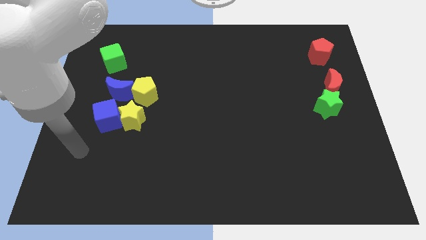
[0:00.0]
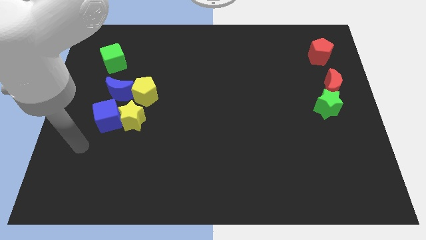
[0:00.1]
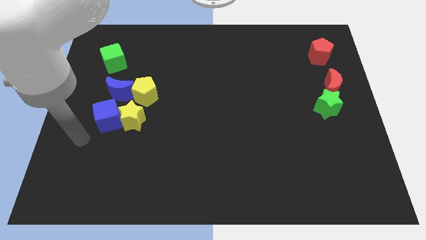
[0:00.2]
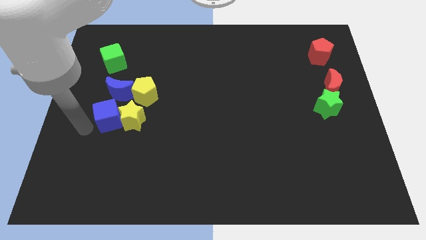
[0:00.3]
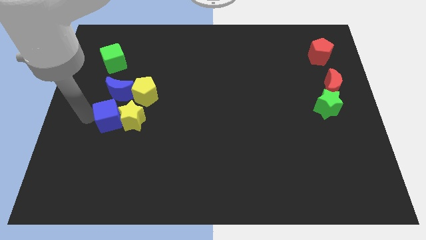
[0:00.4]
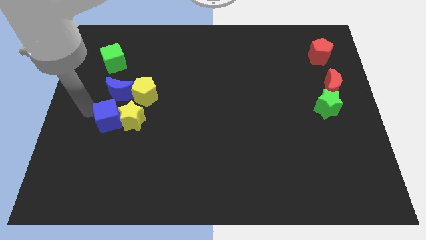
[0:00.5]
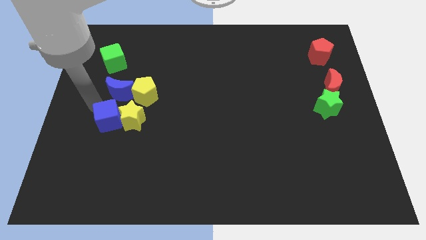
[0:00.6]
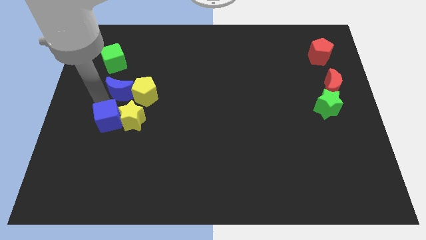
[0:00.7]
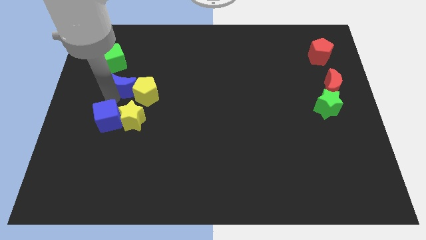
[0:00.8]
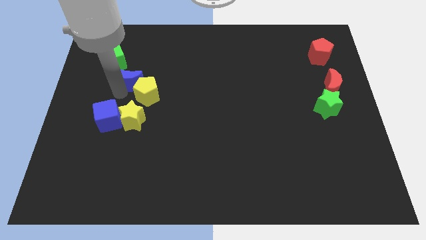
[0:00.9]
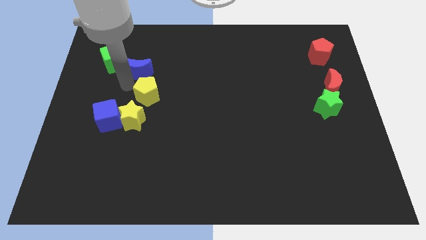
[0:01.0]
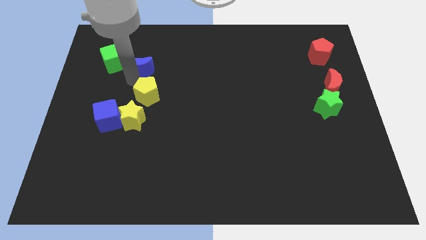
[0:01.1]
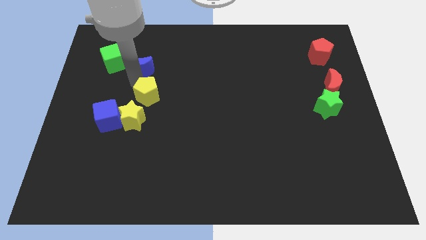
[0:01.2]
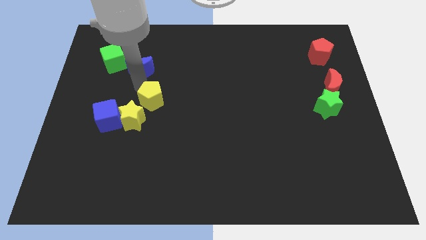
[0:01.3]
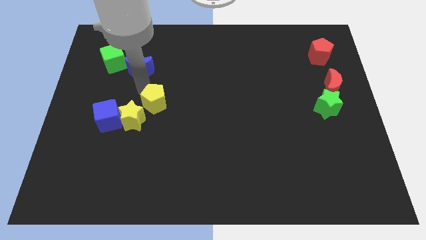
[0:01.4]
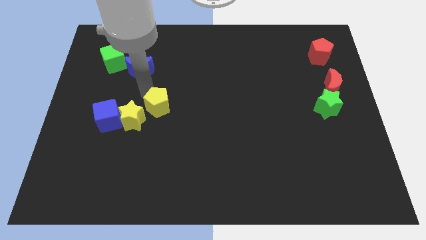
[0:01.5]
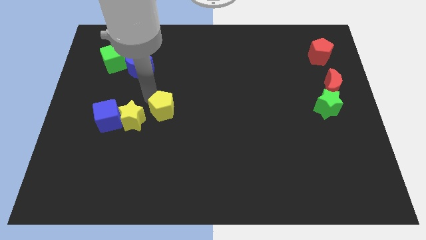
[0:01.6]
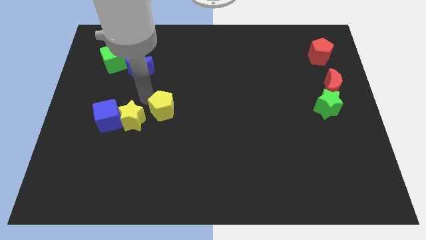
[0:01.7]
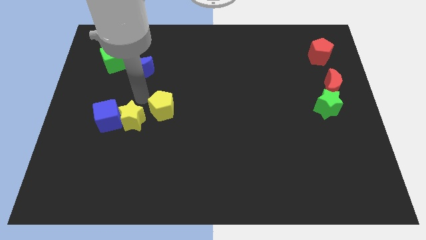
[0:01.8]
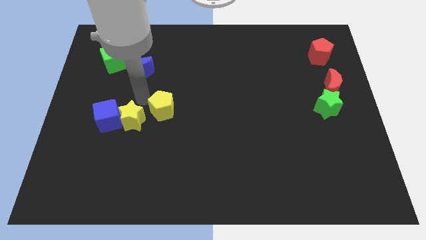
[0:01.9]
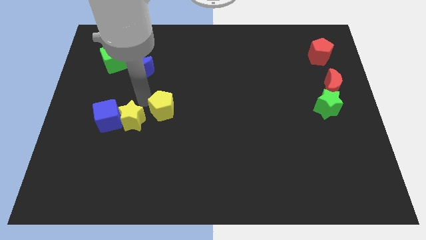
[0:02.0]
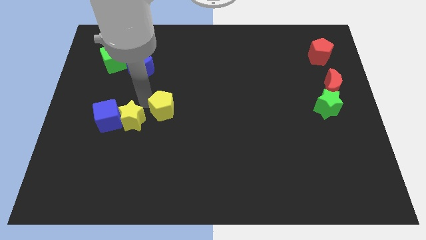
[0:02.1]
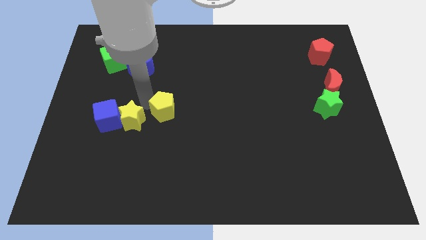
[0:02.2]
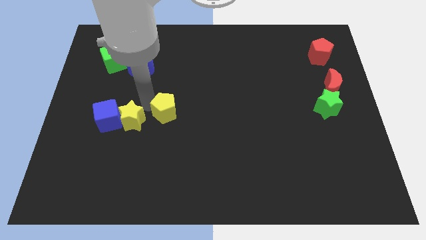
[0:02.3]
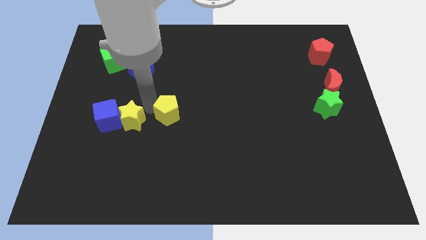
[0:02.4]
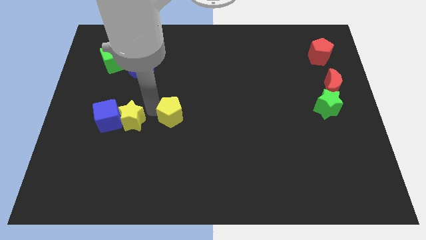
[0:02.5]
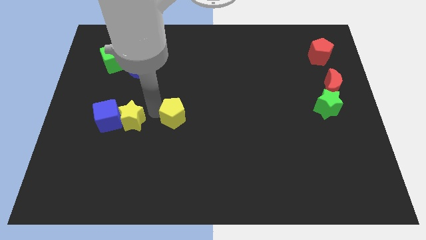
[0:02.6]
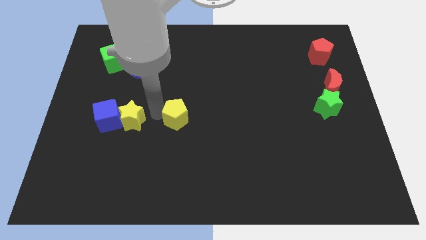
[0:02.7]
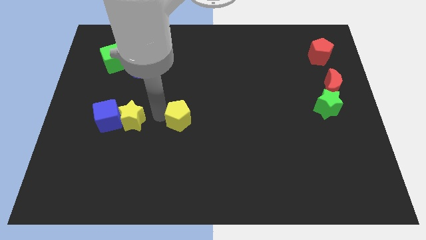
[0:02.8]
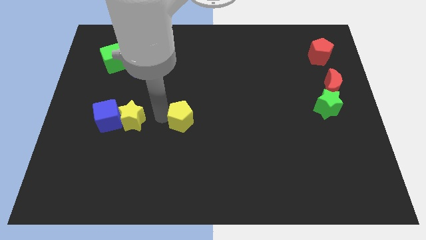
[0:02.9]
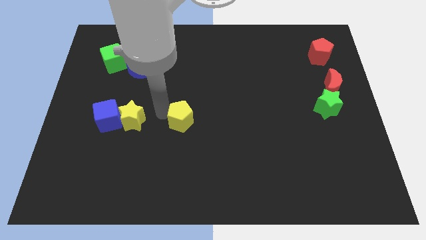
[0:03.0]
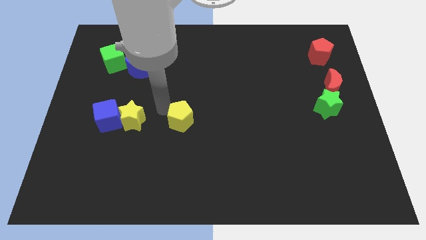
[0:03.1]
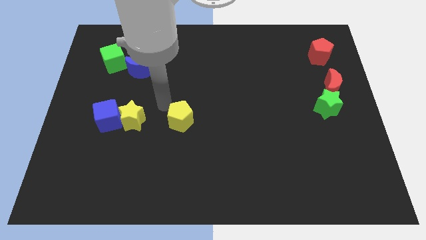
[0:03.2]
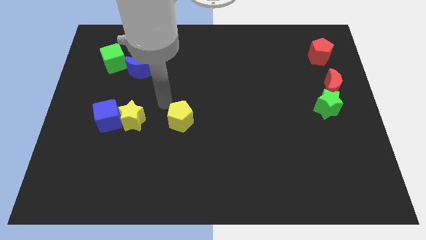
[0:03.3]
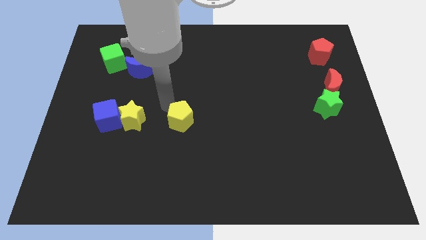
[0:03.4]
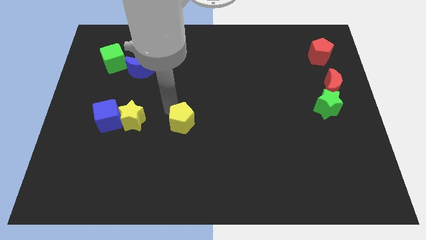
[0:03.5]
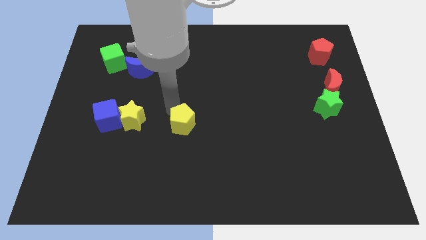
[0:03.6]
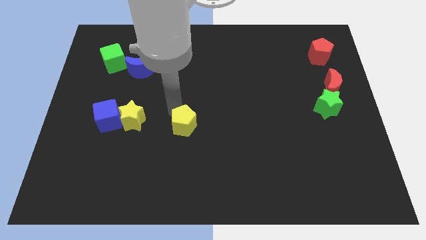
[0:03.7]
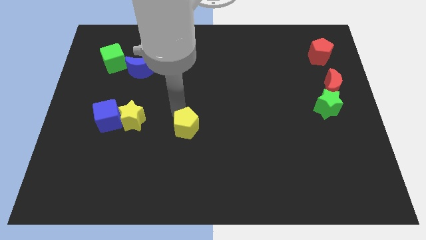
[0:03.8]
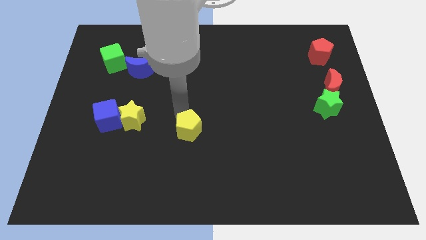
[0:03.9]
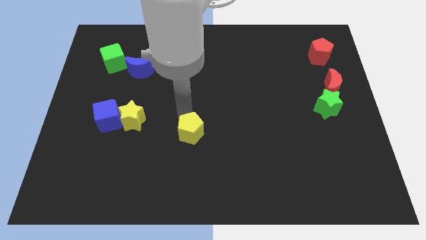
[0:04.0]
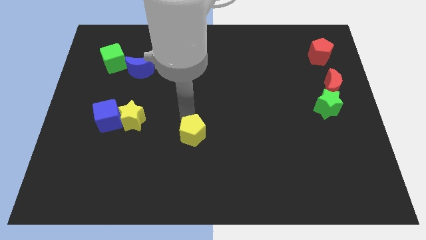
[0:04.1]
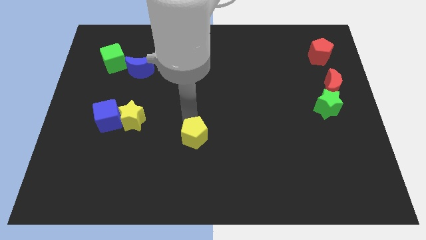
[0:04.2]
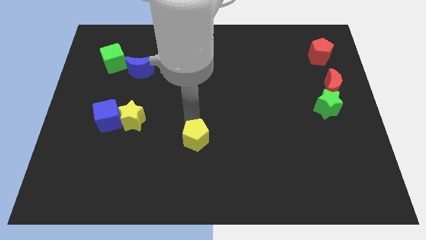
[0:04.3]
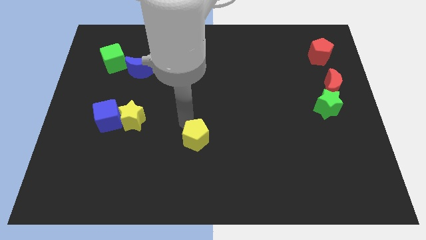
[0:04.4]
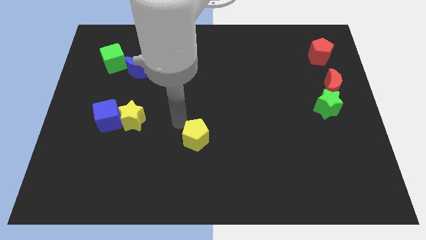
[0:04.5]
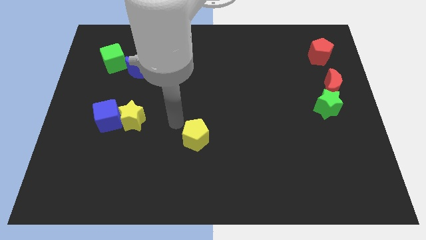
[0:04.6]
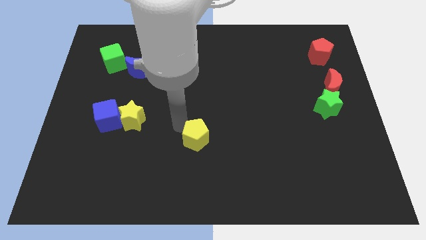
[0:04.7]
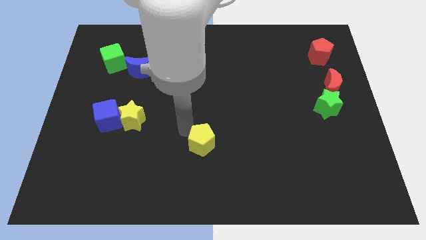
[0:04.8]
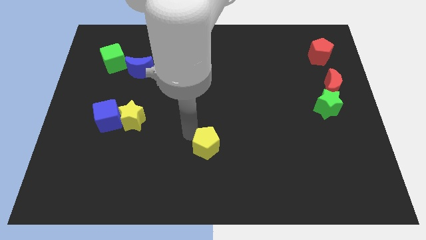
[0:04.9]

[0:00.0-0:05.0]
push the yellow pentagon diagonally downwards and to the right

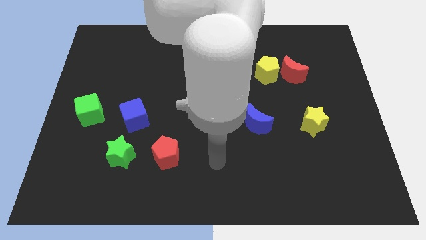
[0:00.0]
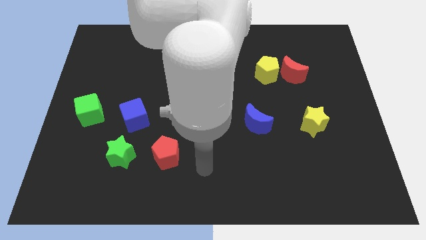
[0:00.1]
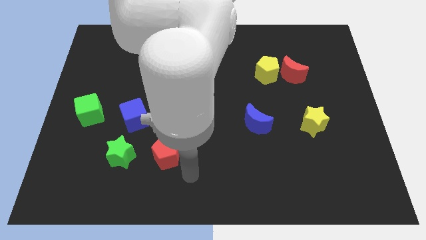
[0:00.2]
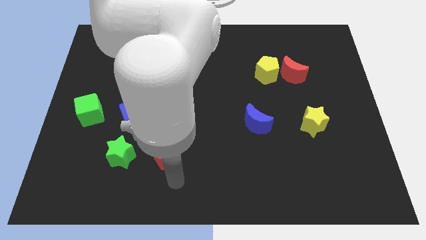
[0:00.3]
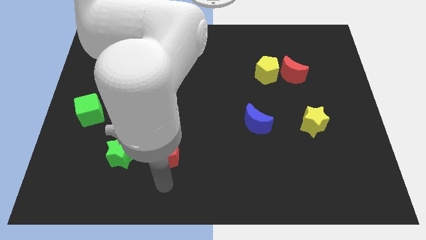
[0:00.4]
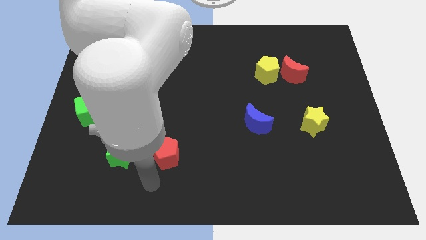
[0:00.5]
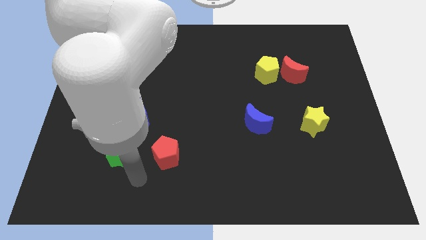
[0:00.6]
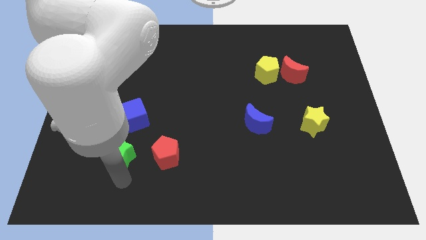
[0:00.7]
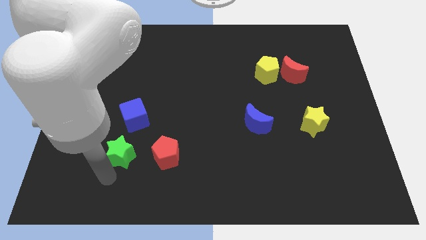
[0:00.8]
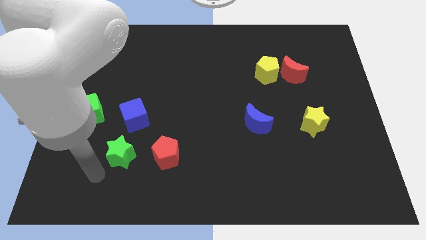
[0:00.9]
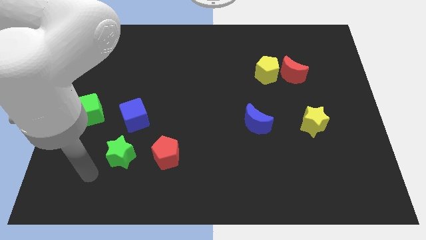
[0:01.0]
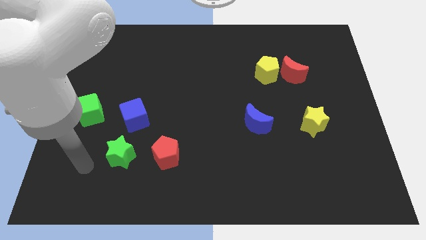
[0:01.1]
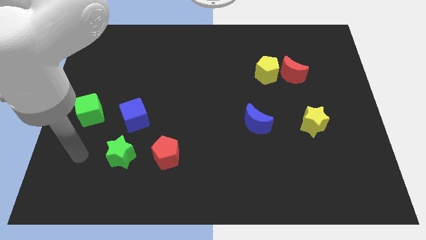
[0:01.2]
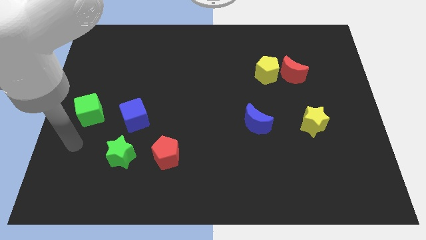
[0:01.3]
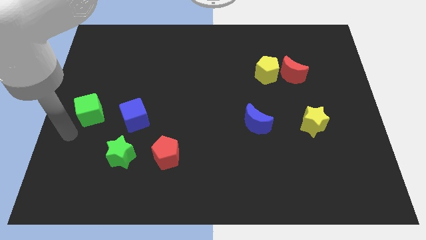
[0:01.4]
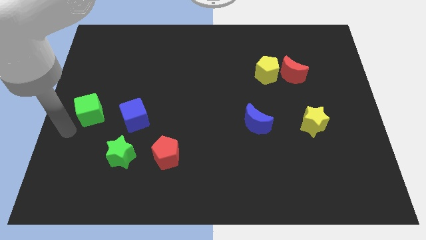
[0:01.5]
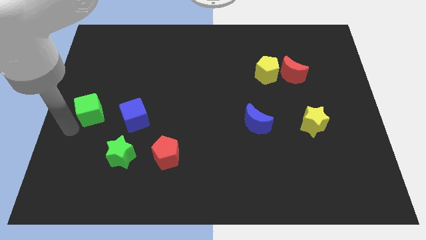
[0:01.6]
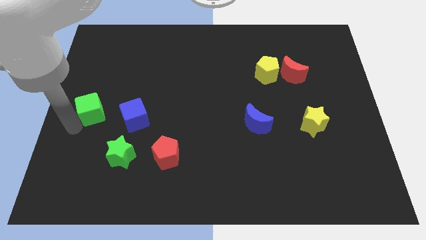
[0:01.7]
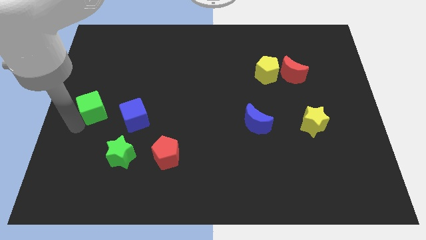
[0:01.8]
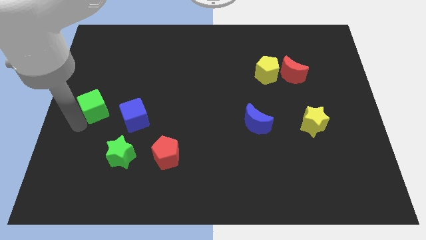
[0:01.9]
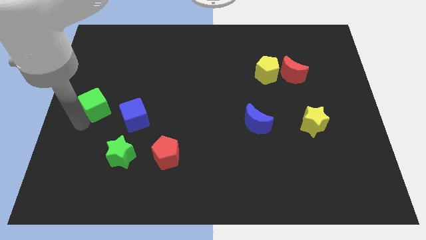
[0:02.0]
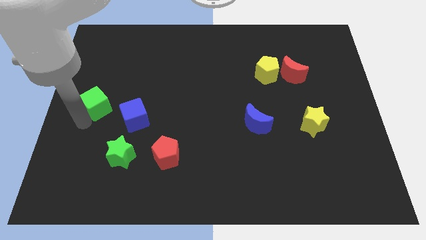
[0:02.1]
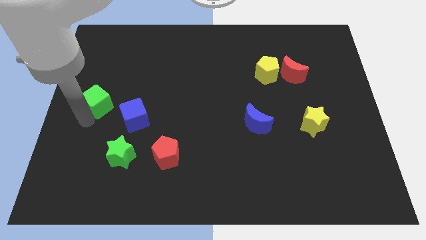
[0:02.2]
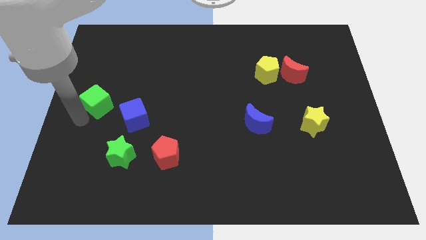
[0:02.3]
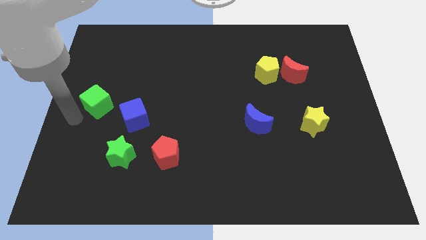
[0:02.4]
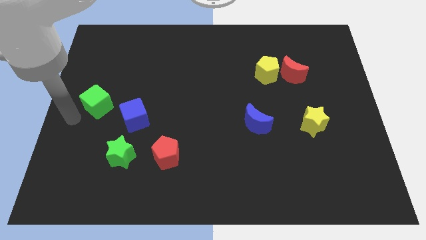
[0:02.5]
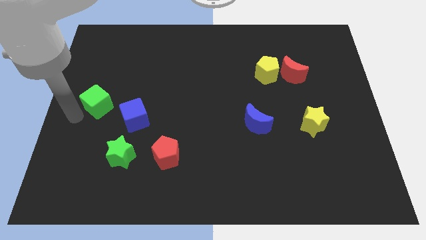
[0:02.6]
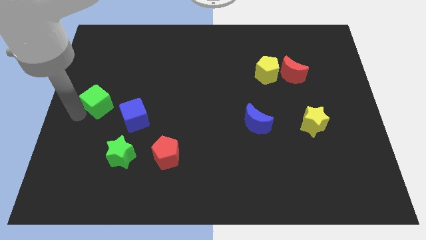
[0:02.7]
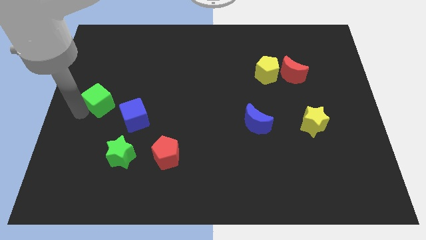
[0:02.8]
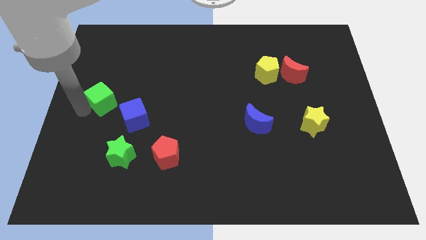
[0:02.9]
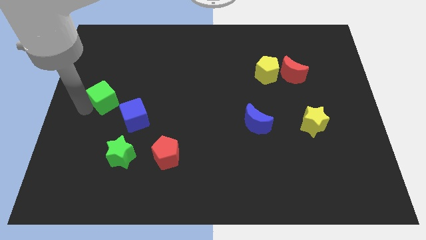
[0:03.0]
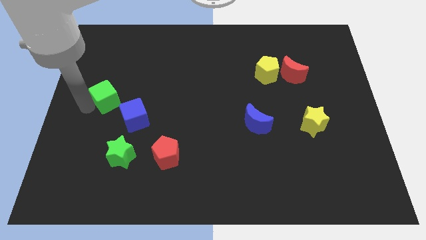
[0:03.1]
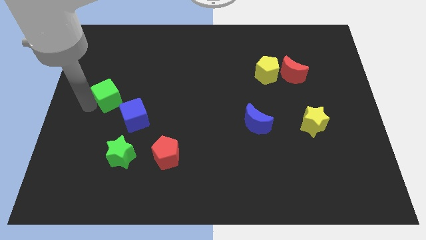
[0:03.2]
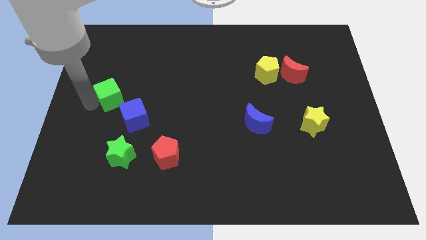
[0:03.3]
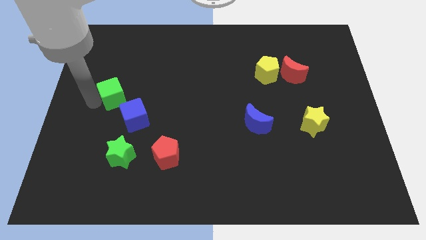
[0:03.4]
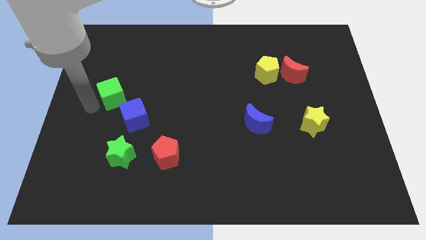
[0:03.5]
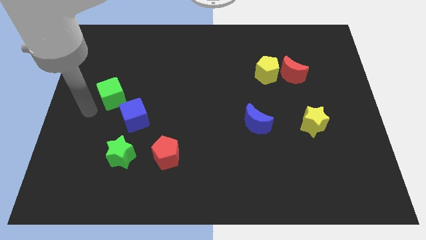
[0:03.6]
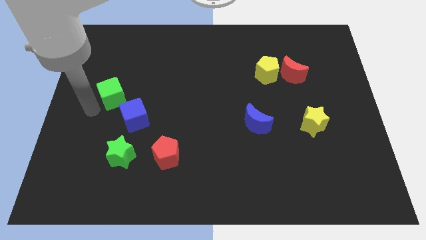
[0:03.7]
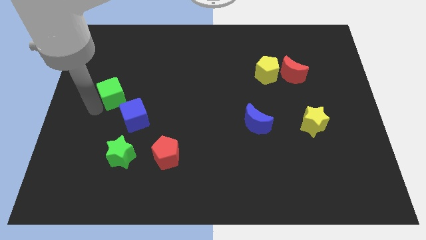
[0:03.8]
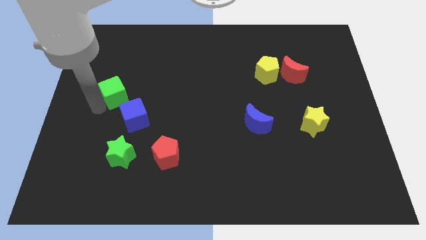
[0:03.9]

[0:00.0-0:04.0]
slightly move the green cube up and to the right
